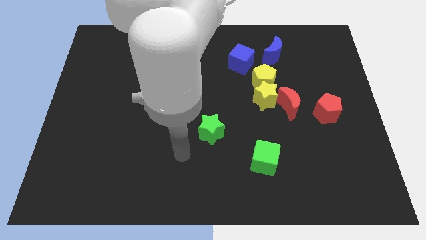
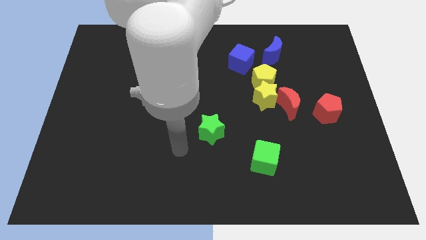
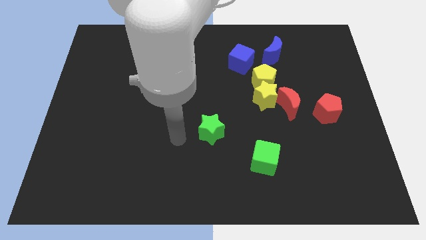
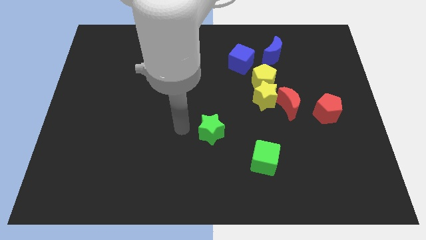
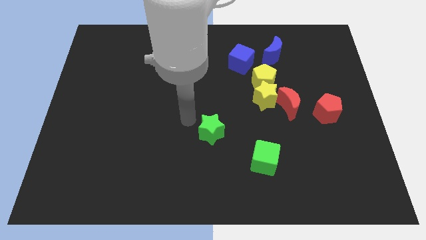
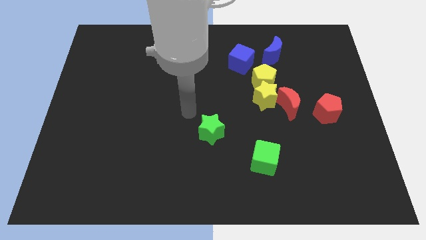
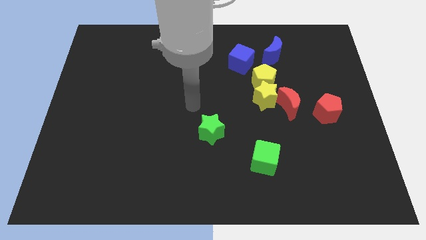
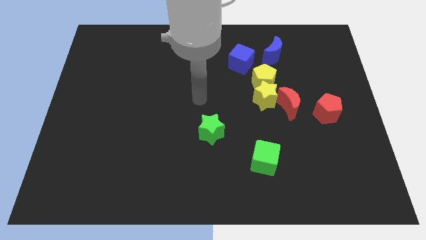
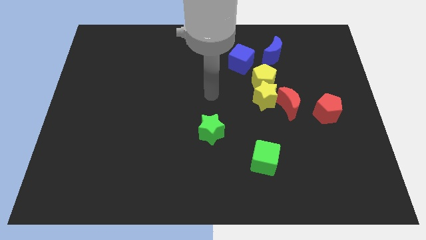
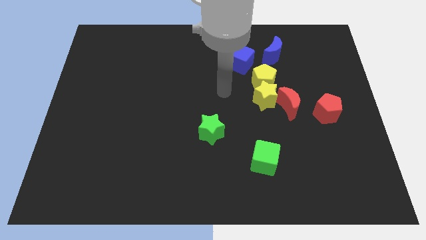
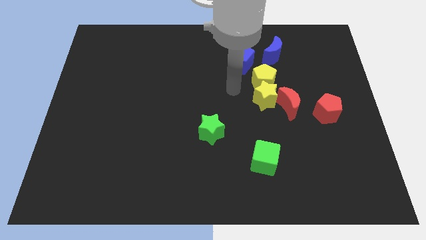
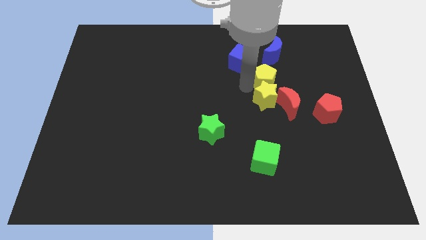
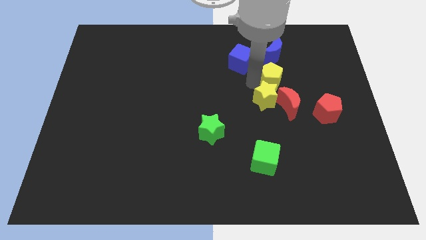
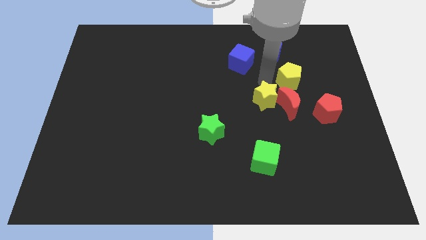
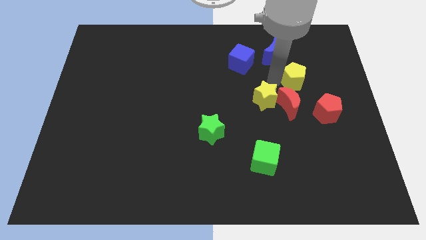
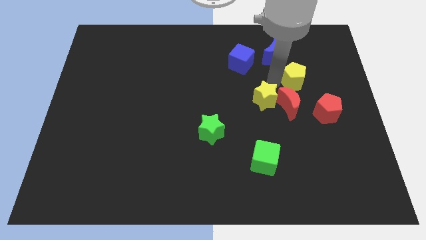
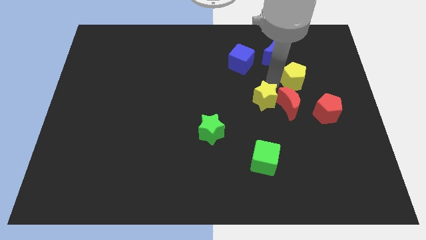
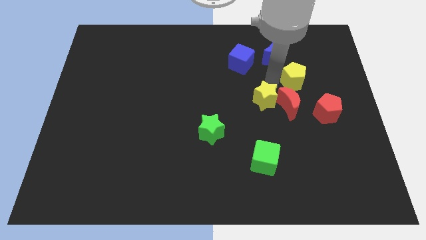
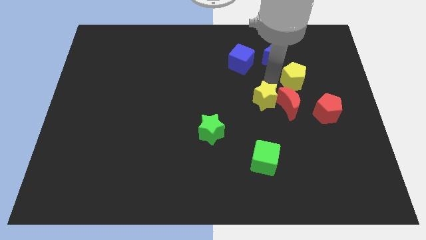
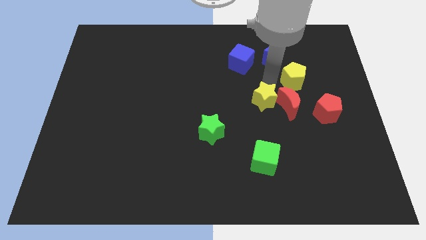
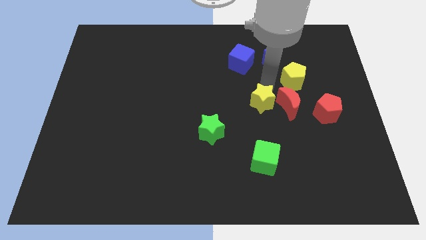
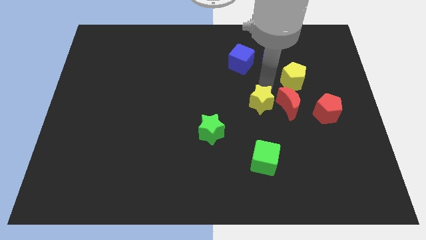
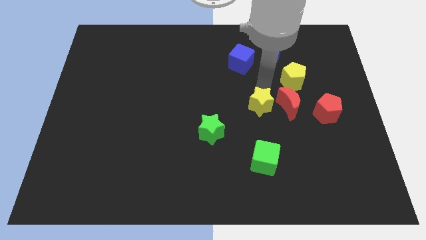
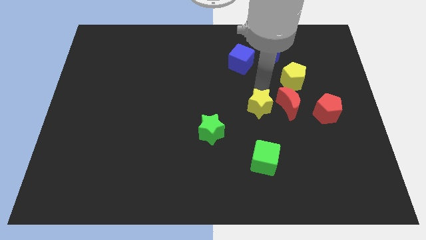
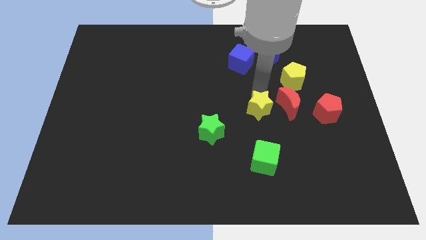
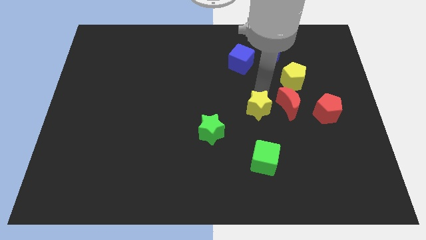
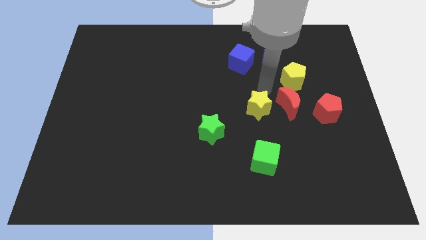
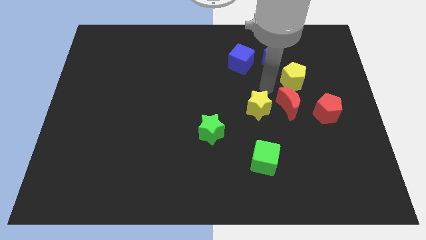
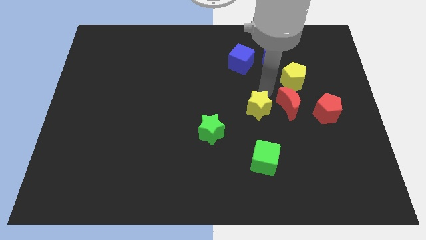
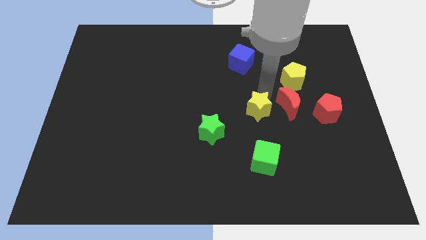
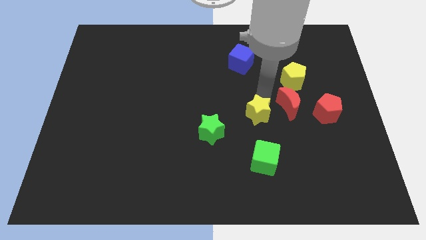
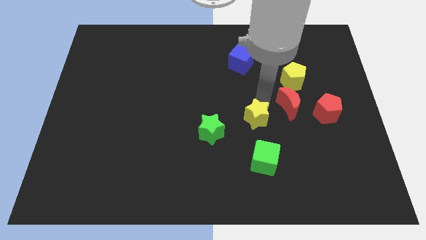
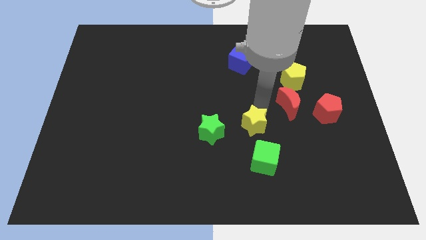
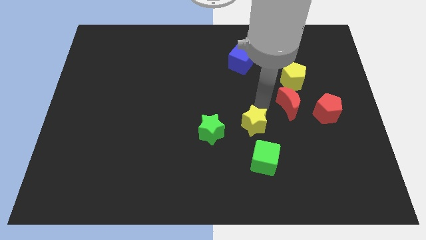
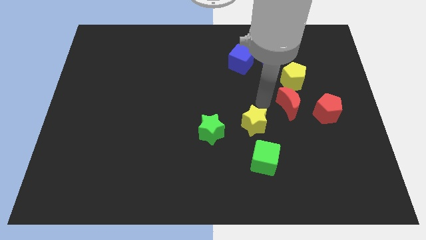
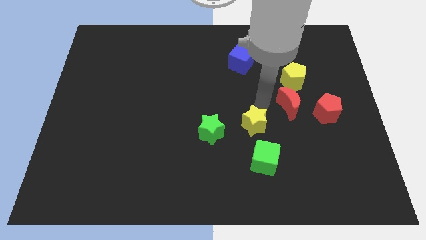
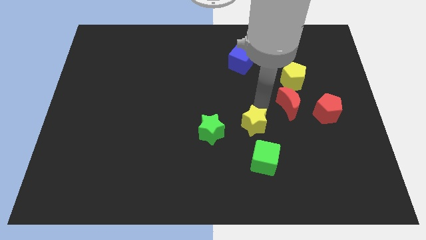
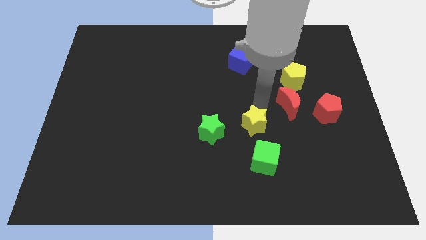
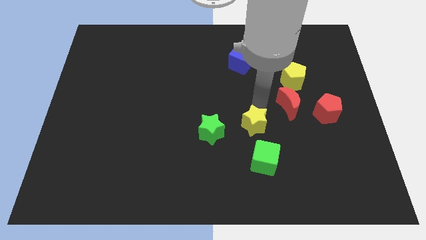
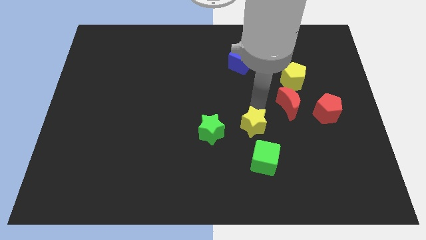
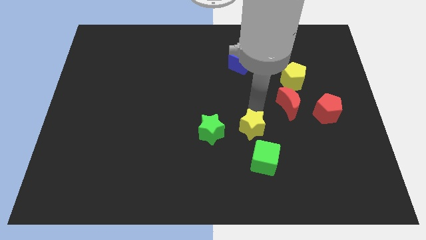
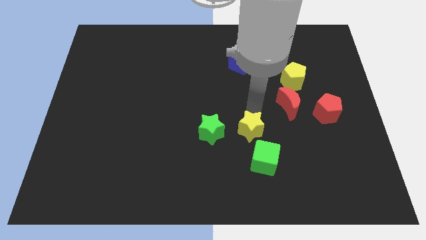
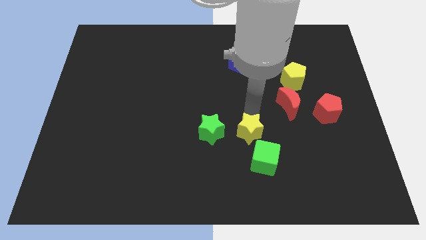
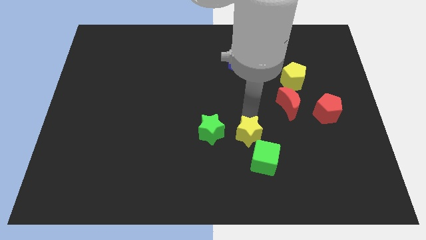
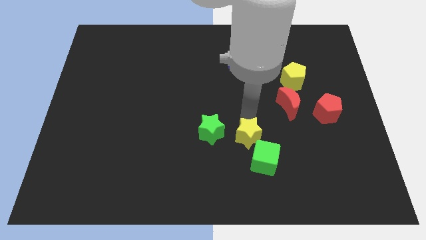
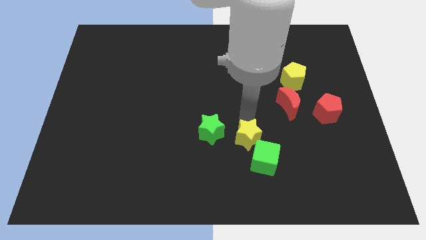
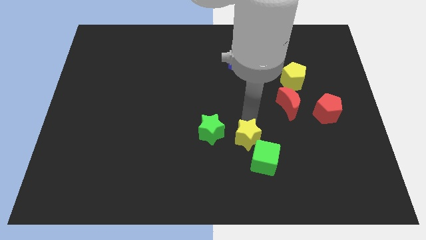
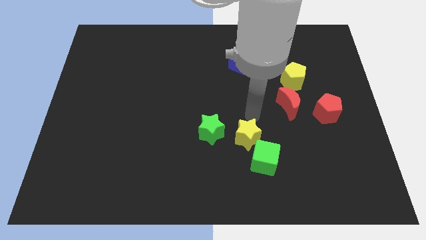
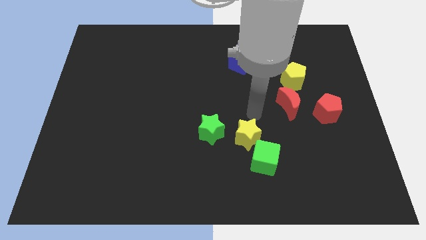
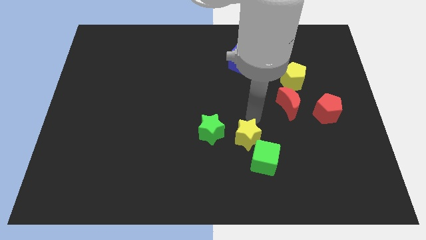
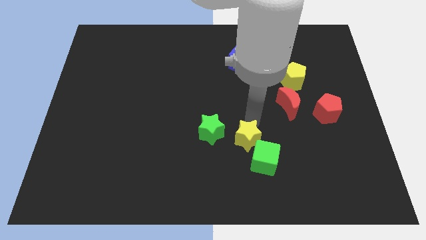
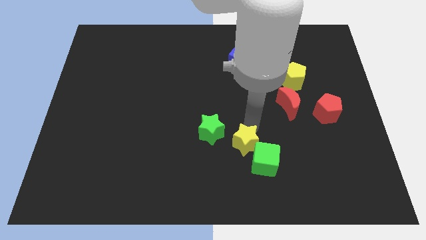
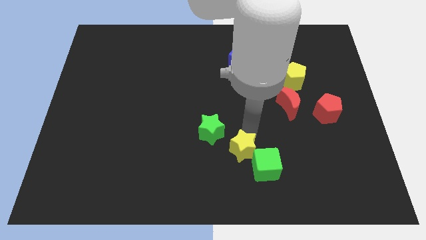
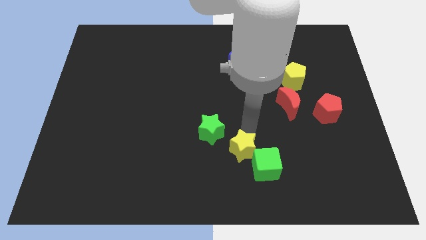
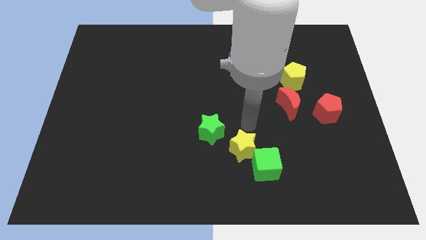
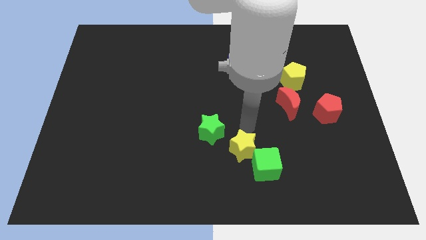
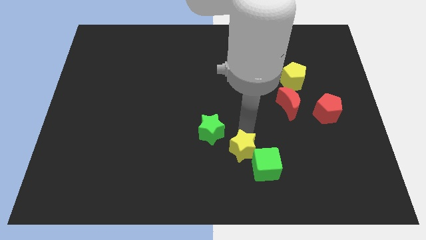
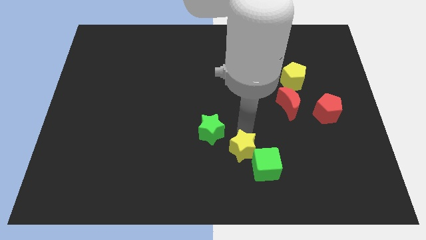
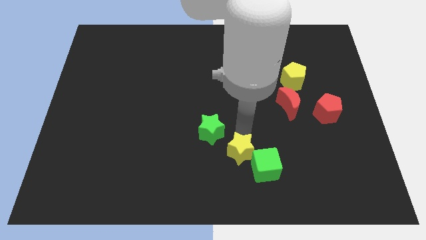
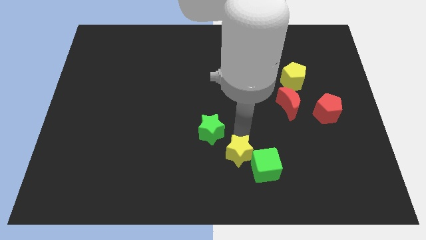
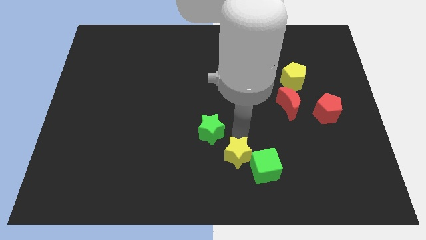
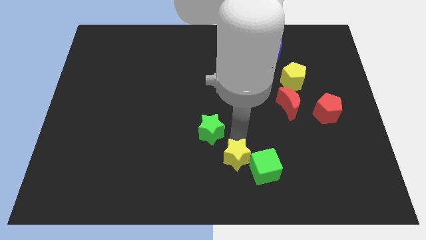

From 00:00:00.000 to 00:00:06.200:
slide the yellow star to the bottom

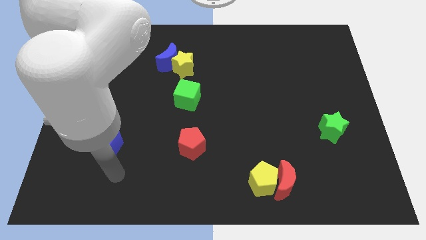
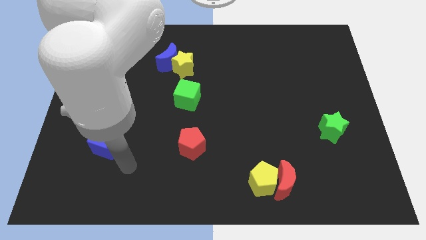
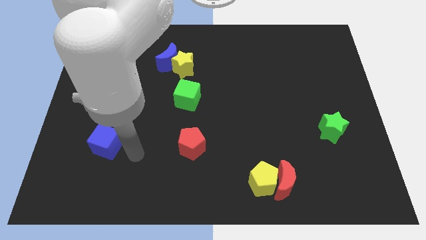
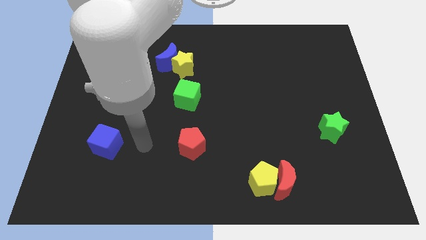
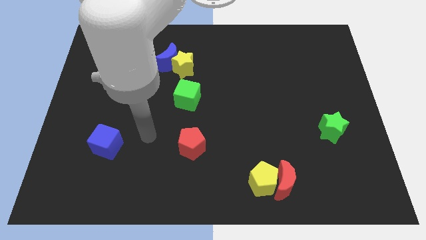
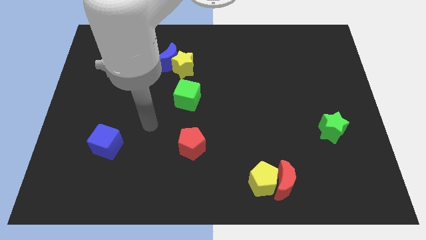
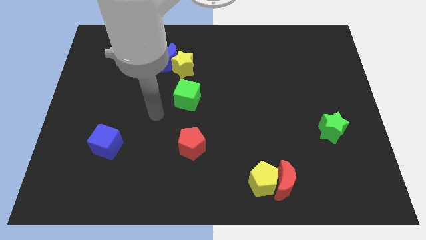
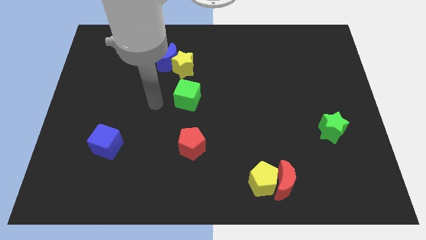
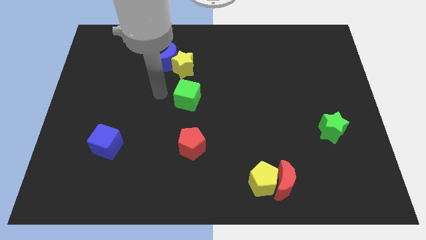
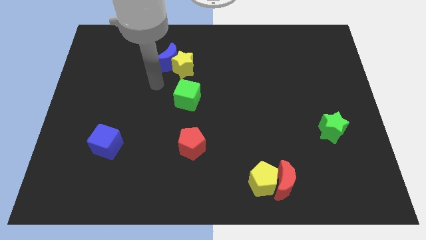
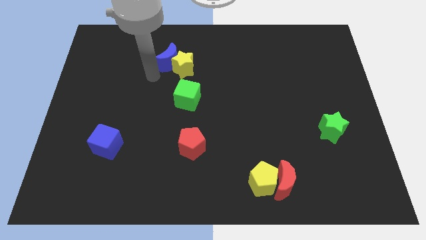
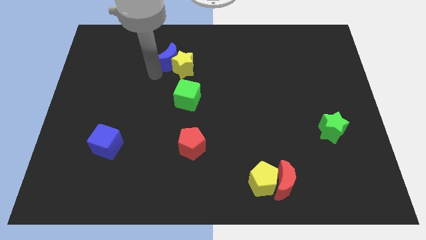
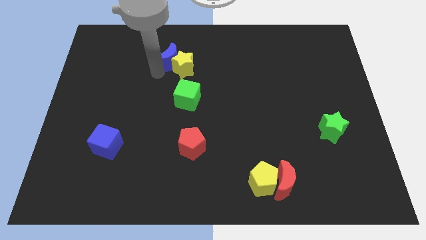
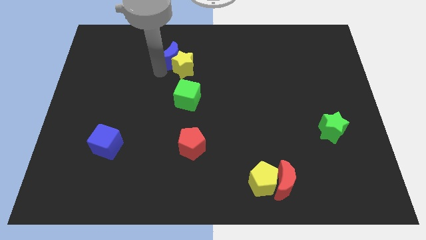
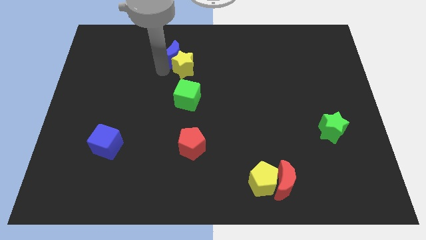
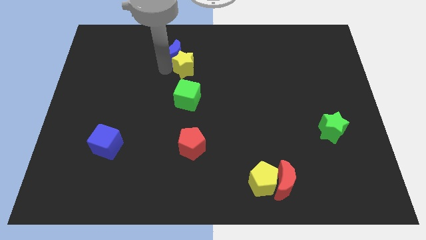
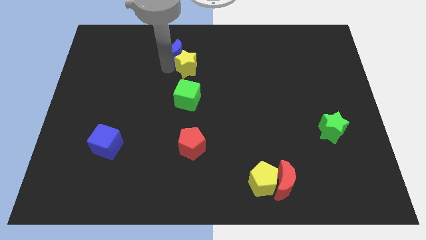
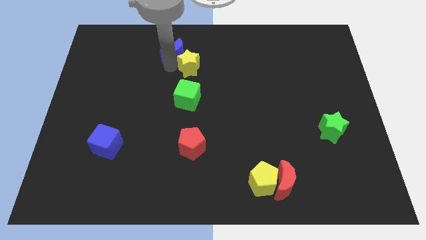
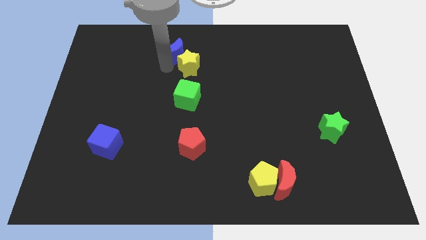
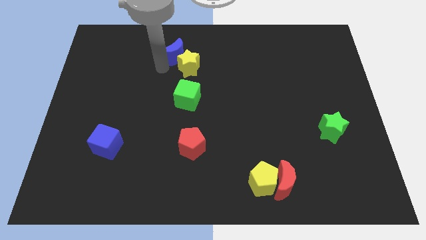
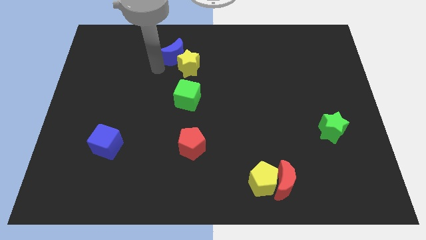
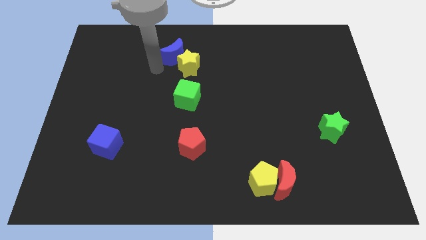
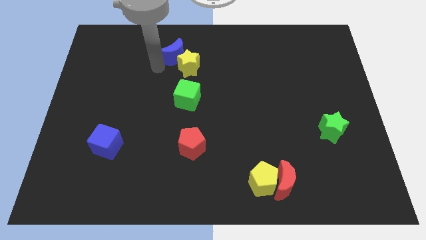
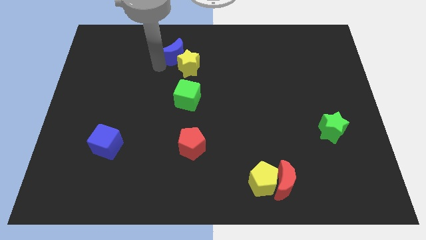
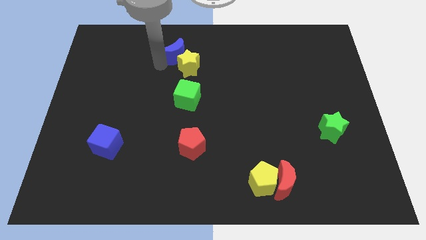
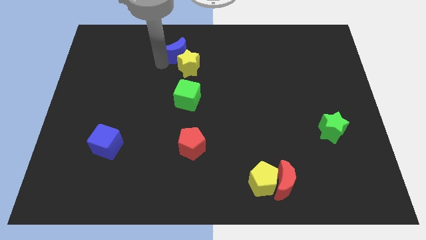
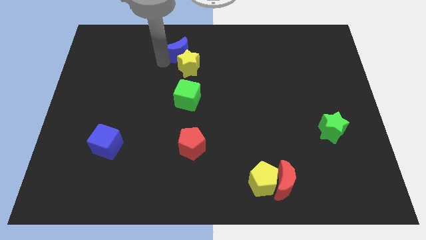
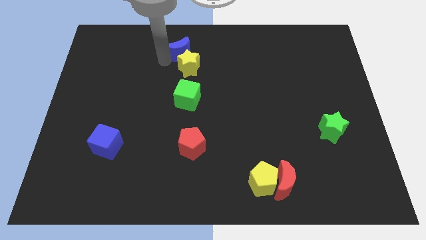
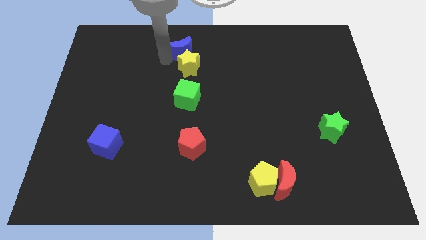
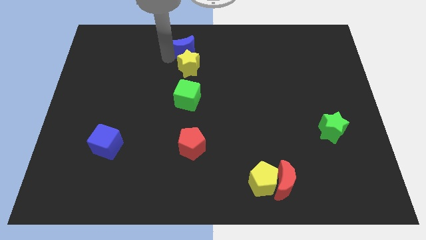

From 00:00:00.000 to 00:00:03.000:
move the blue moon to the top side
